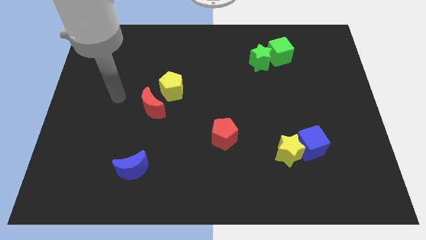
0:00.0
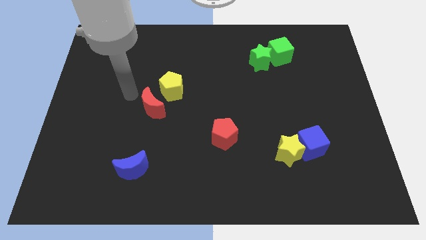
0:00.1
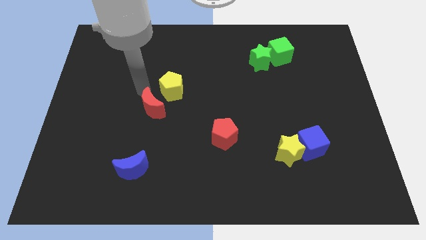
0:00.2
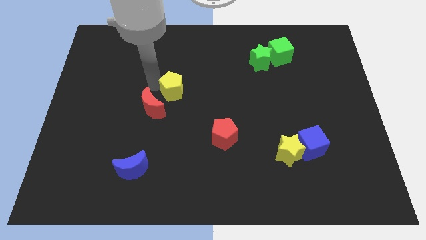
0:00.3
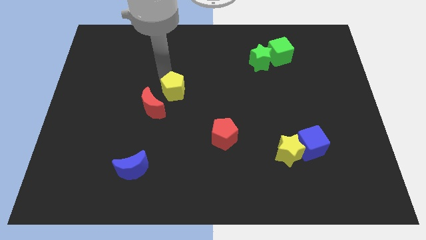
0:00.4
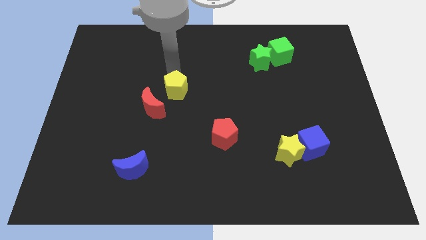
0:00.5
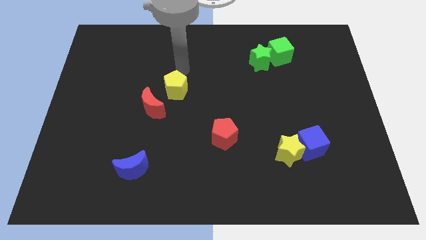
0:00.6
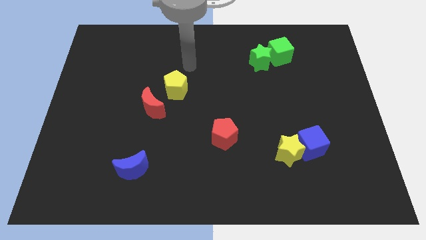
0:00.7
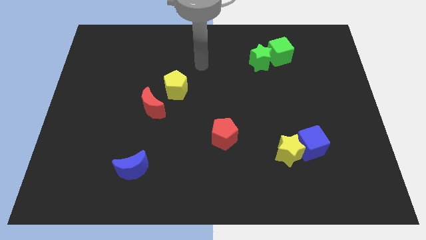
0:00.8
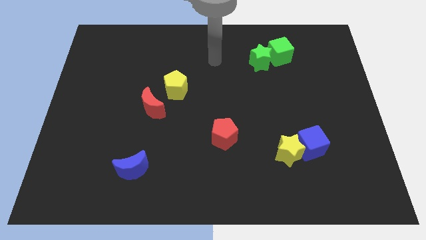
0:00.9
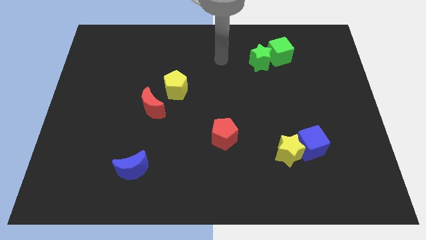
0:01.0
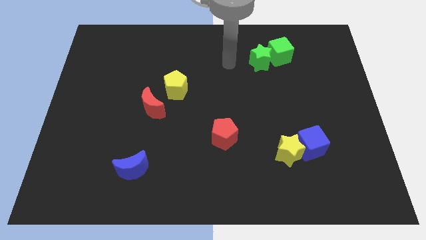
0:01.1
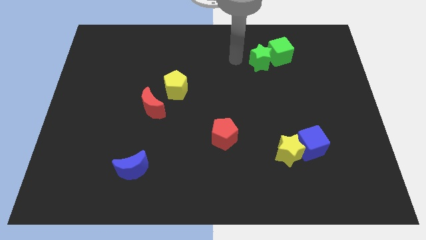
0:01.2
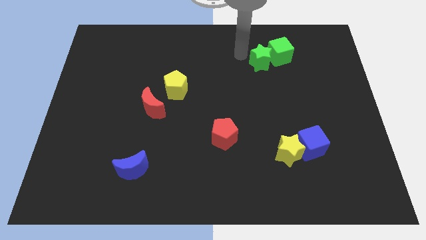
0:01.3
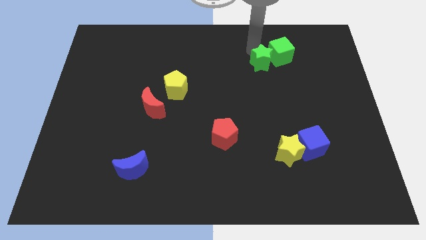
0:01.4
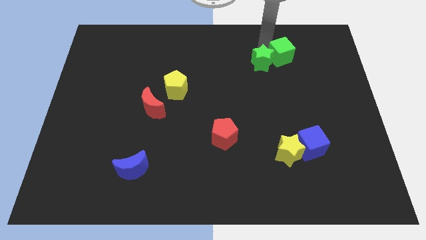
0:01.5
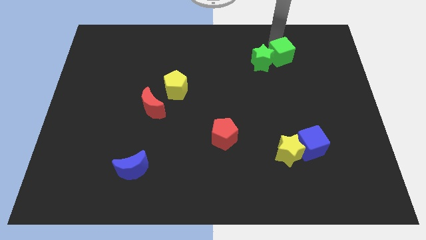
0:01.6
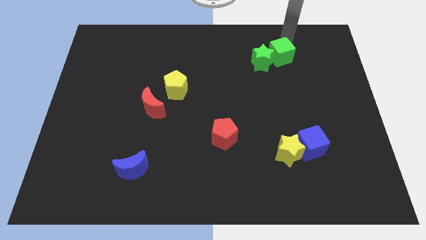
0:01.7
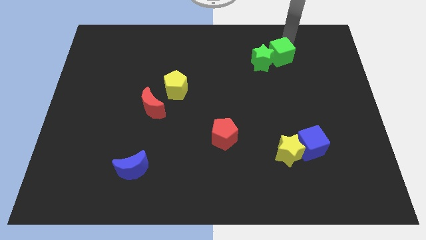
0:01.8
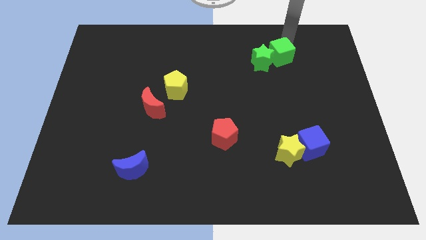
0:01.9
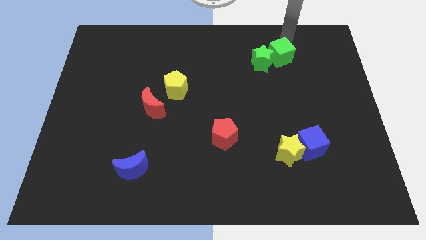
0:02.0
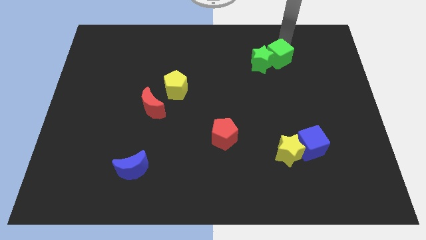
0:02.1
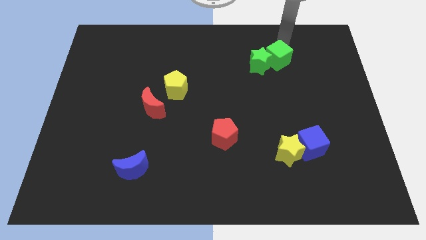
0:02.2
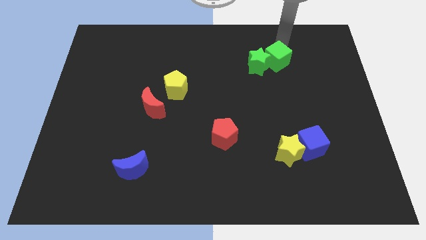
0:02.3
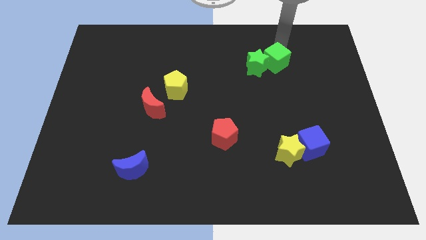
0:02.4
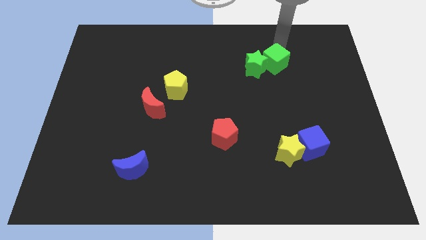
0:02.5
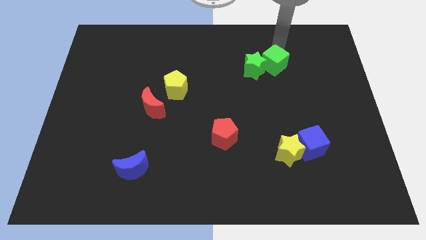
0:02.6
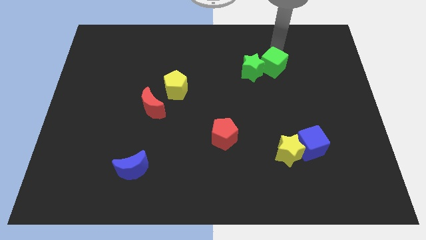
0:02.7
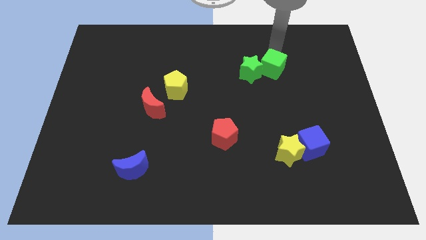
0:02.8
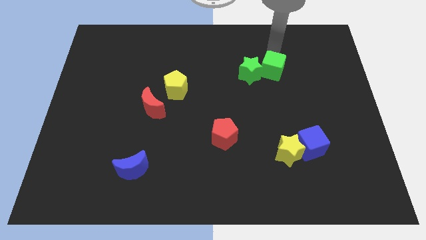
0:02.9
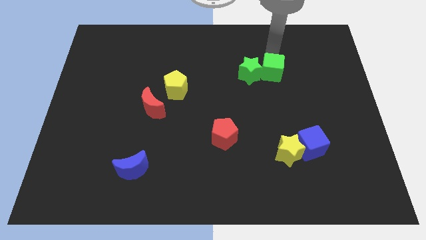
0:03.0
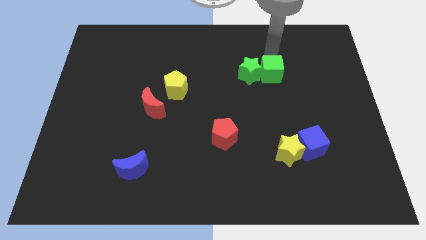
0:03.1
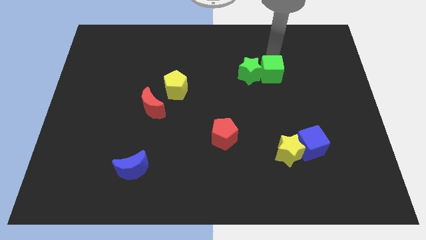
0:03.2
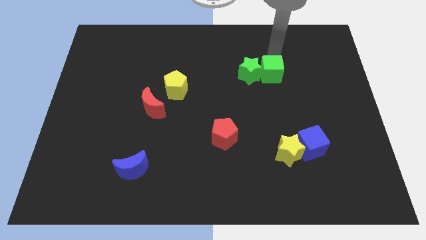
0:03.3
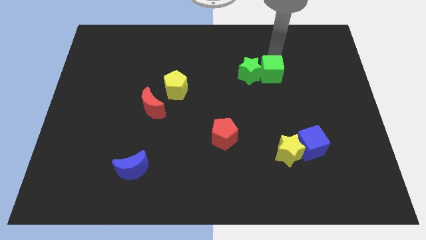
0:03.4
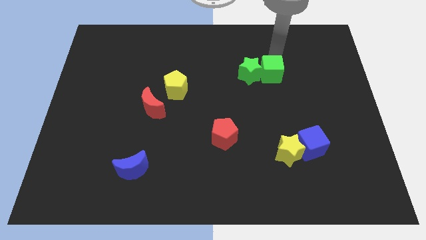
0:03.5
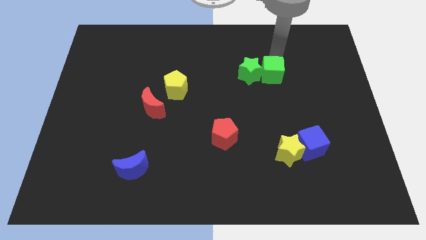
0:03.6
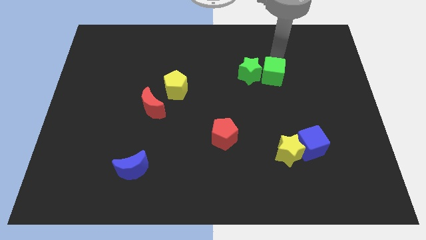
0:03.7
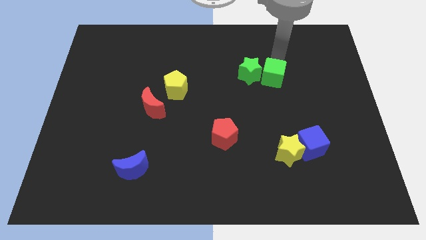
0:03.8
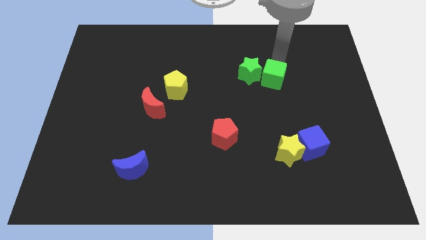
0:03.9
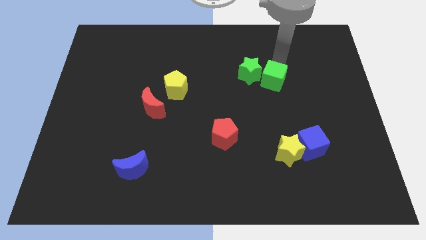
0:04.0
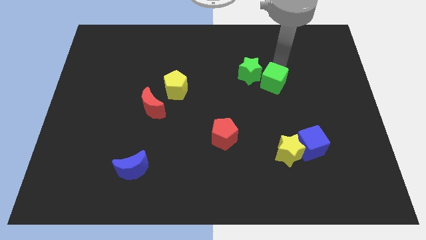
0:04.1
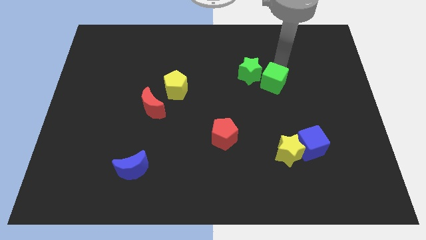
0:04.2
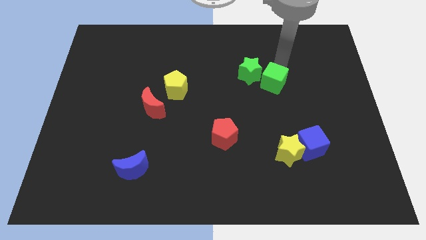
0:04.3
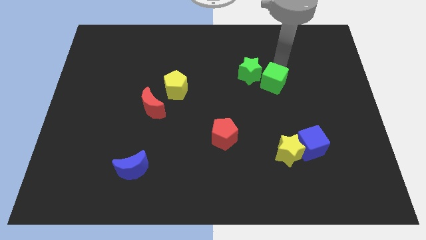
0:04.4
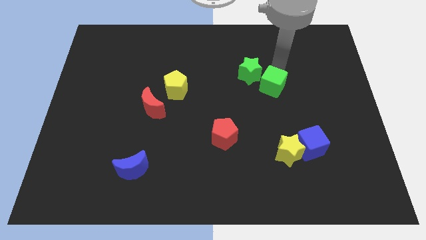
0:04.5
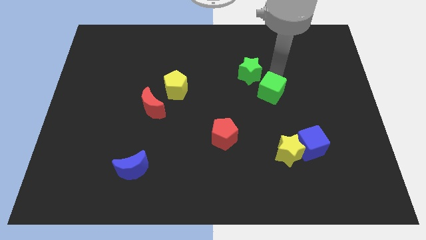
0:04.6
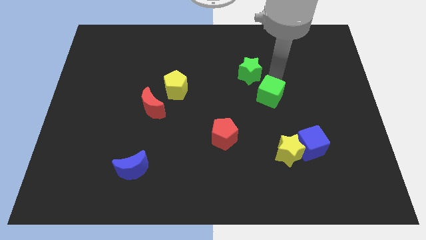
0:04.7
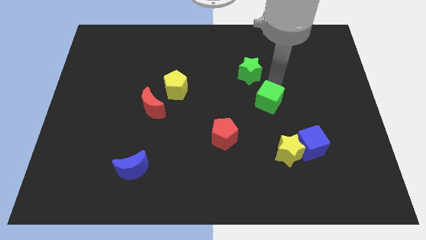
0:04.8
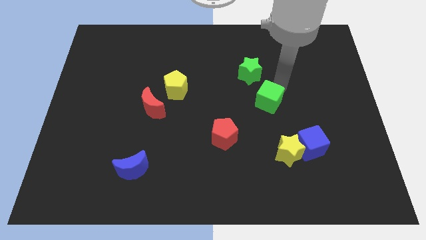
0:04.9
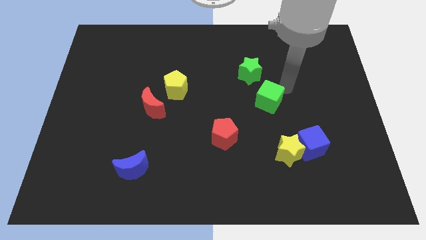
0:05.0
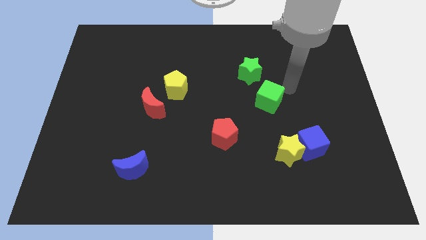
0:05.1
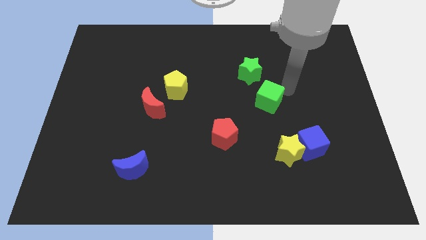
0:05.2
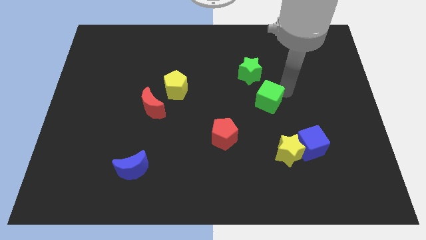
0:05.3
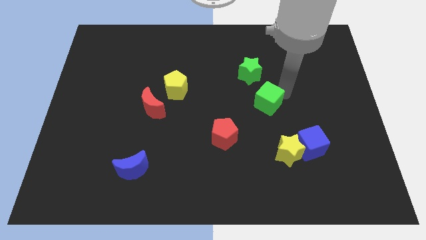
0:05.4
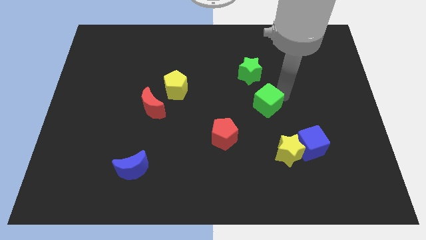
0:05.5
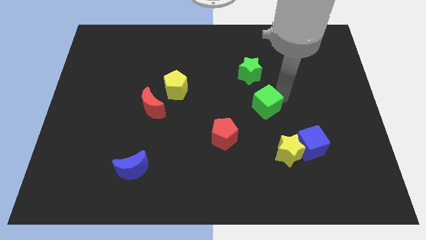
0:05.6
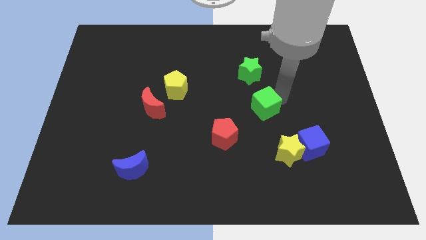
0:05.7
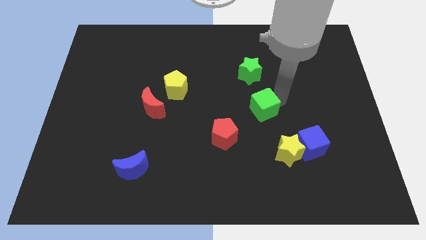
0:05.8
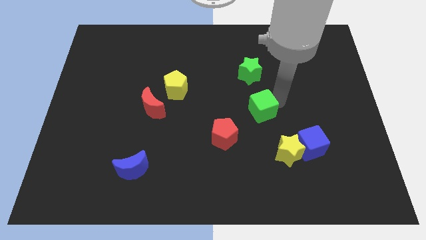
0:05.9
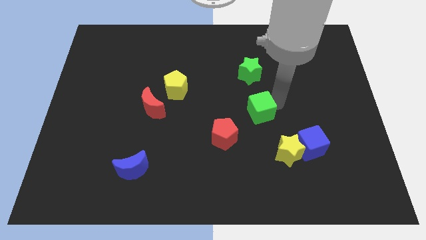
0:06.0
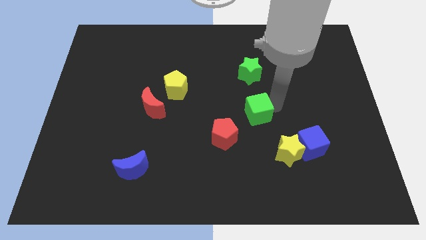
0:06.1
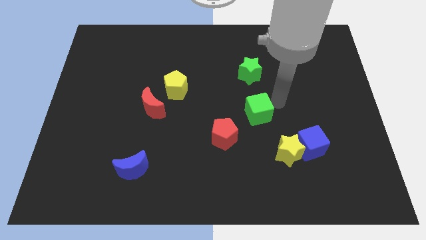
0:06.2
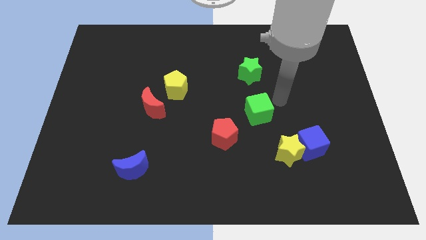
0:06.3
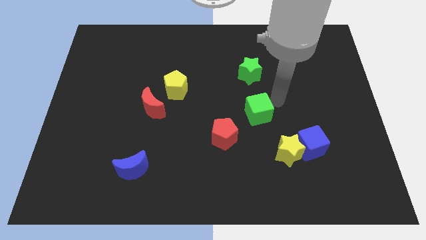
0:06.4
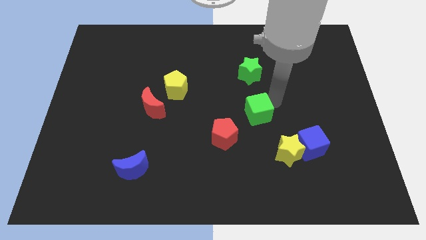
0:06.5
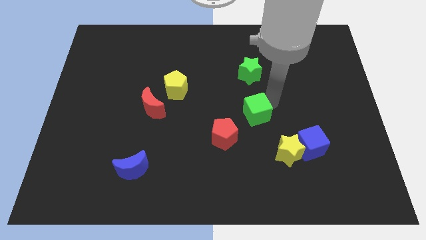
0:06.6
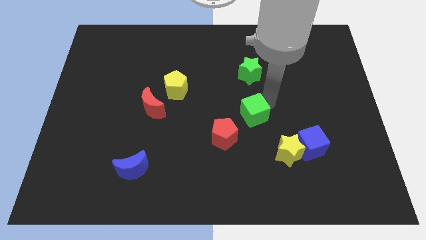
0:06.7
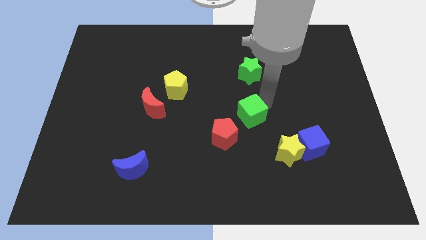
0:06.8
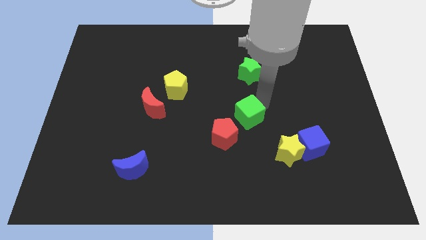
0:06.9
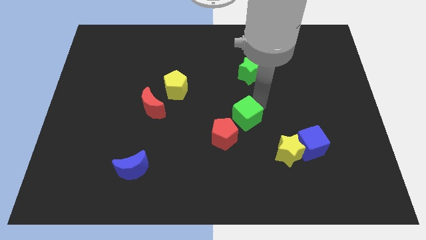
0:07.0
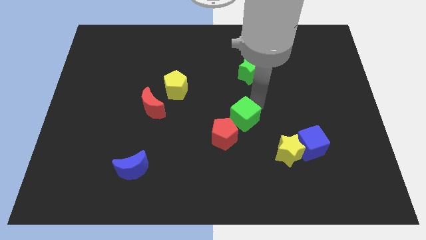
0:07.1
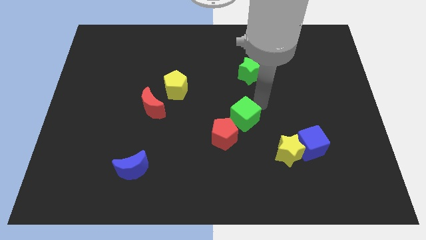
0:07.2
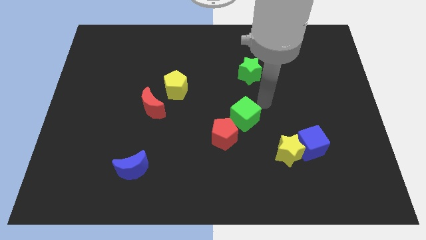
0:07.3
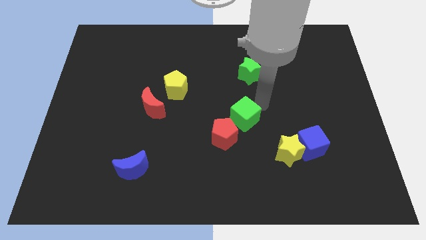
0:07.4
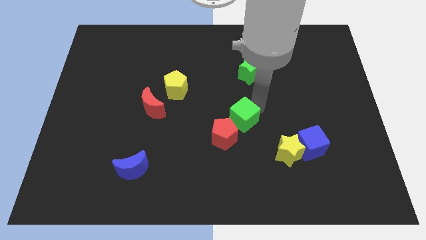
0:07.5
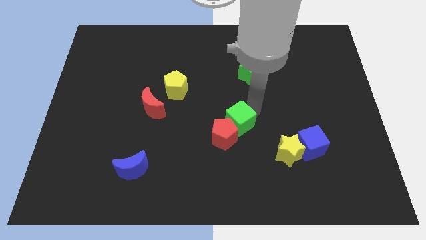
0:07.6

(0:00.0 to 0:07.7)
slide the green cube towards the red pentagon

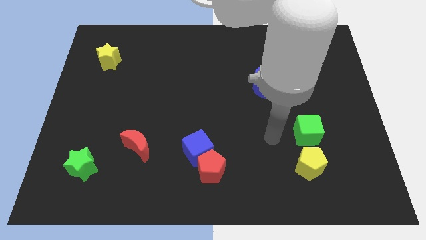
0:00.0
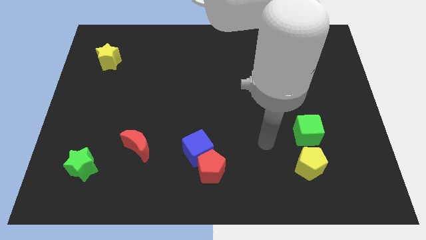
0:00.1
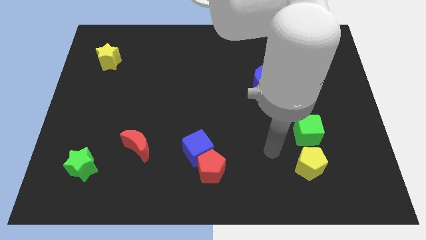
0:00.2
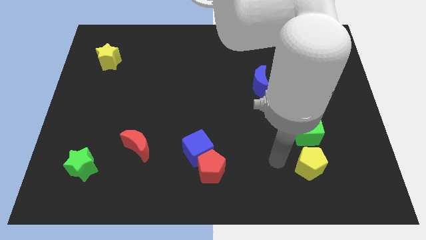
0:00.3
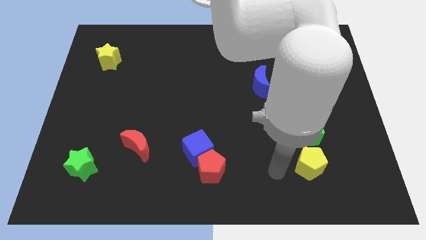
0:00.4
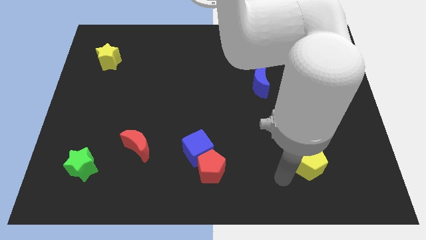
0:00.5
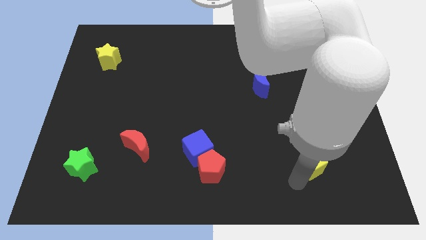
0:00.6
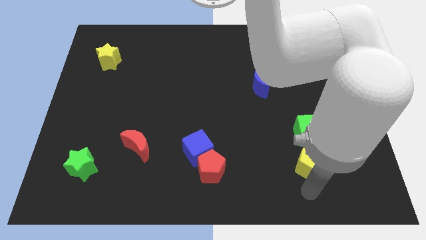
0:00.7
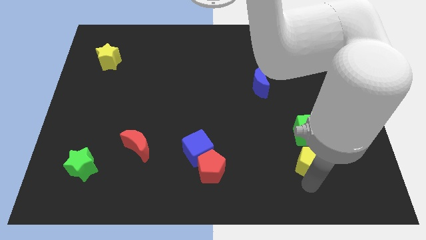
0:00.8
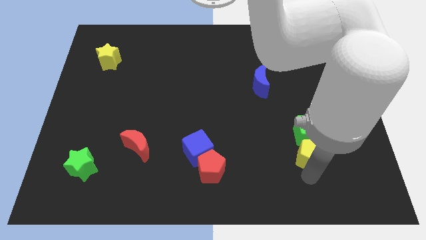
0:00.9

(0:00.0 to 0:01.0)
push the yellow pentagon next to the green cube
